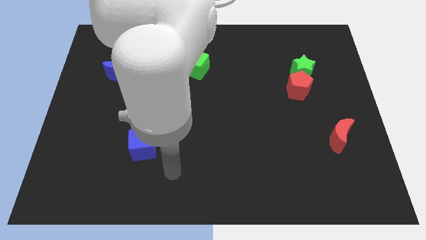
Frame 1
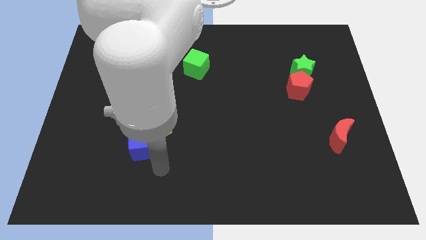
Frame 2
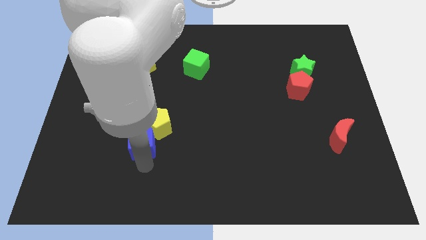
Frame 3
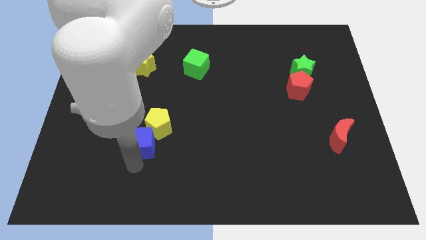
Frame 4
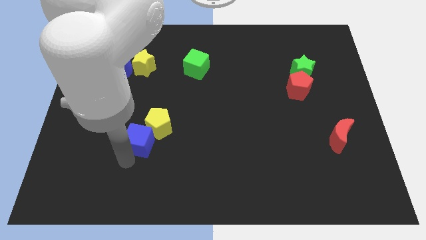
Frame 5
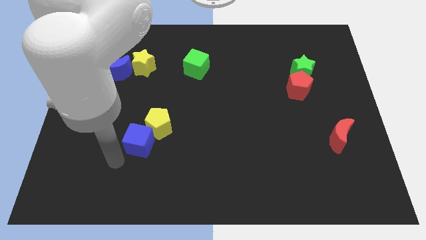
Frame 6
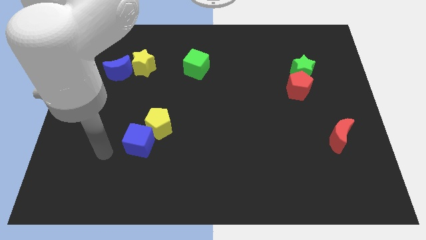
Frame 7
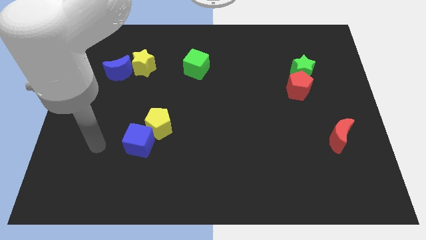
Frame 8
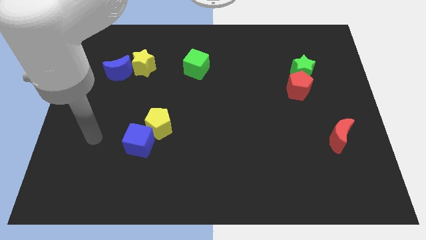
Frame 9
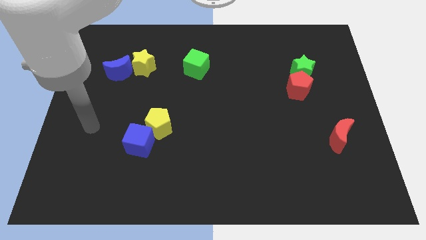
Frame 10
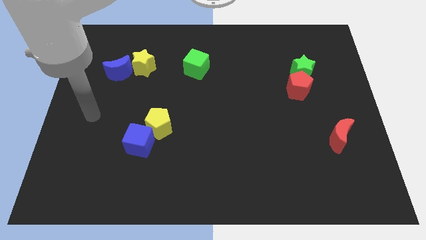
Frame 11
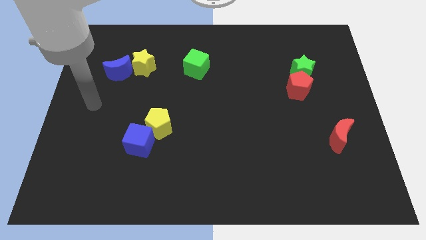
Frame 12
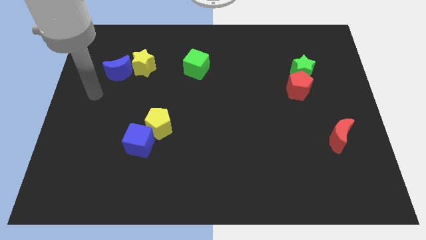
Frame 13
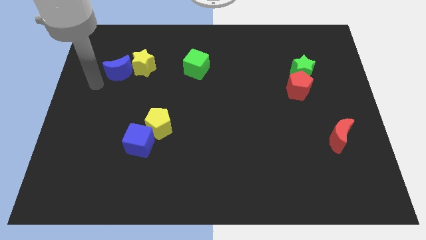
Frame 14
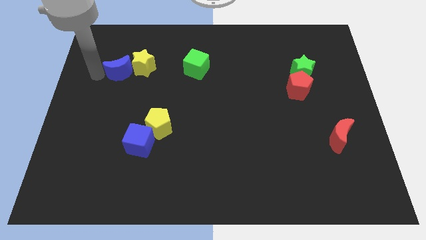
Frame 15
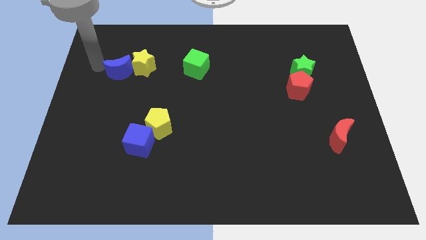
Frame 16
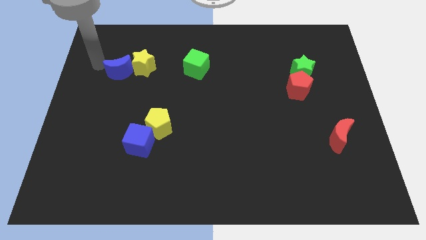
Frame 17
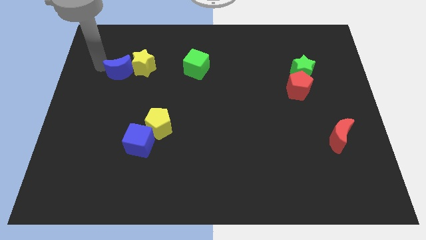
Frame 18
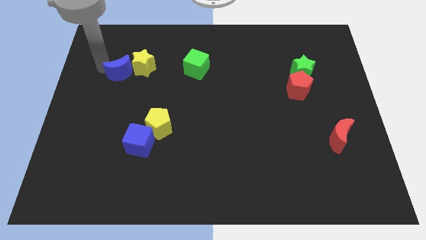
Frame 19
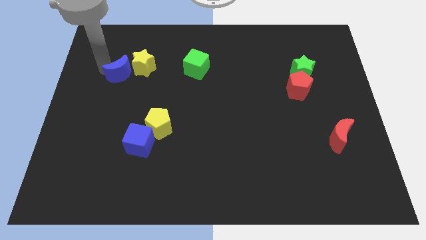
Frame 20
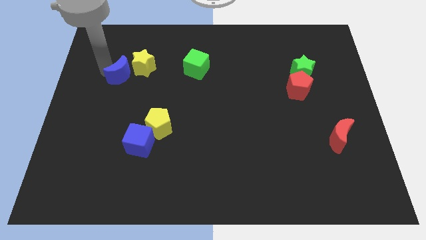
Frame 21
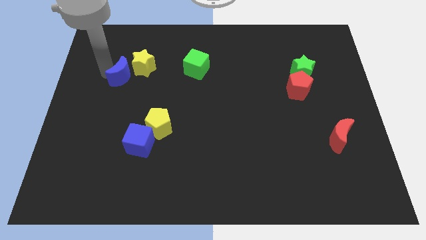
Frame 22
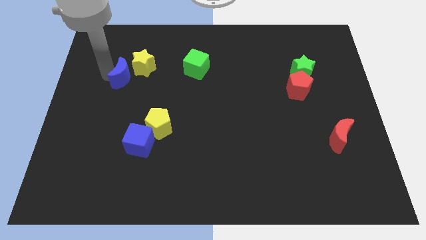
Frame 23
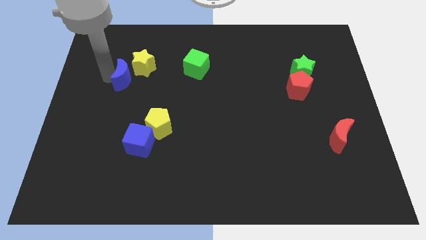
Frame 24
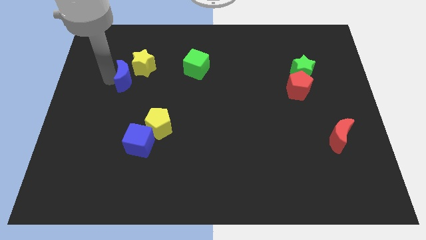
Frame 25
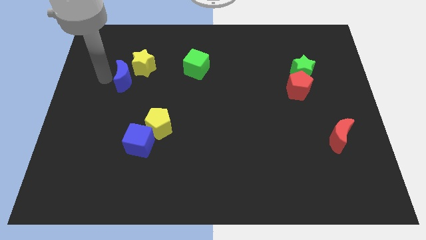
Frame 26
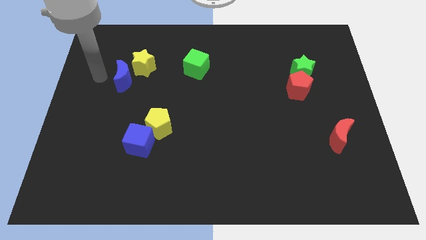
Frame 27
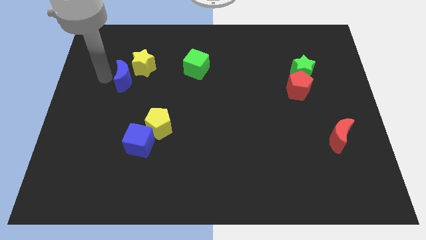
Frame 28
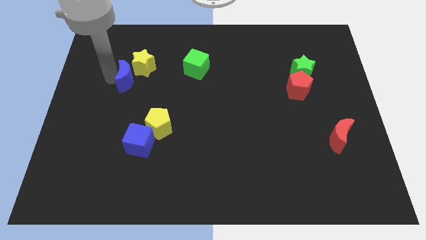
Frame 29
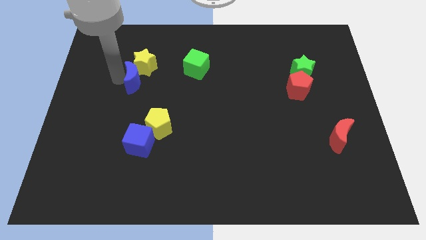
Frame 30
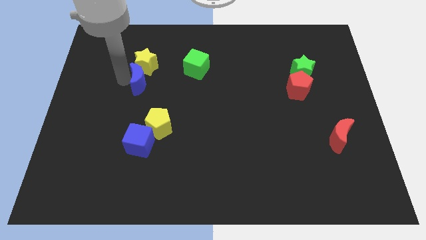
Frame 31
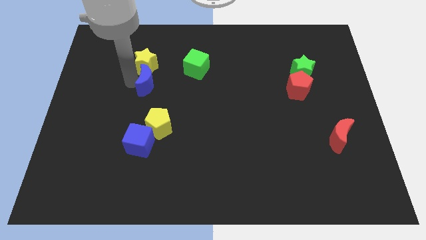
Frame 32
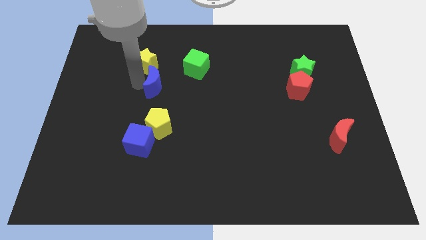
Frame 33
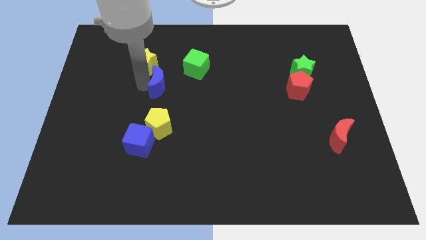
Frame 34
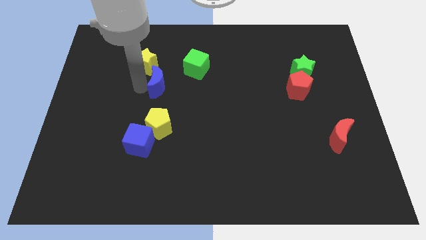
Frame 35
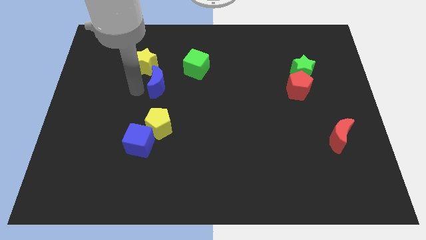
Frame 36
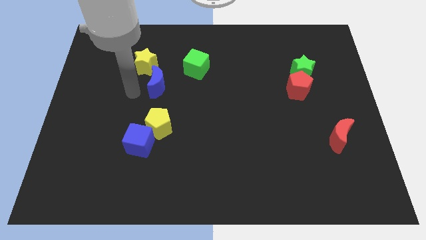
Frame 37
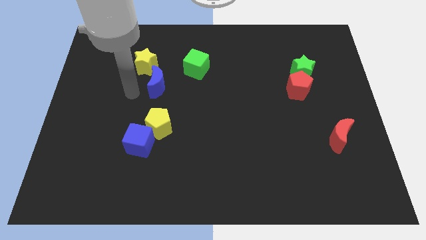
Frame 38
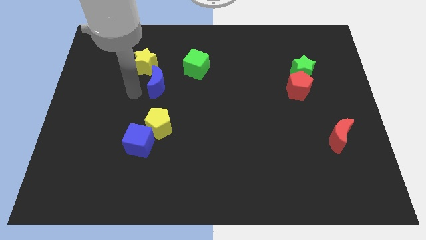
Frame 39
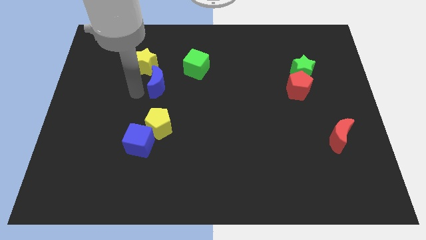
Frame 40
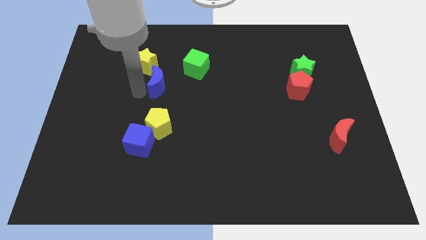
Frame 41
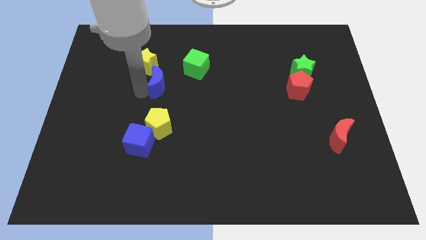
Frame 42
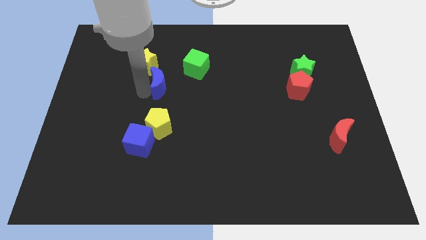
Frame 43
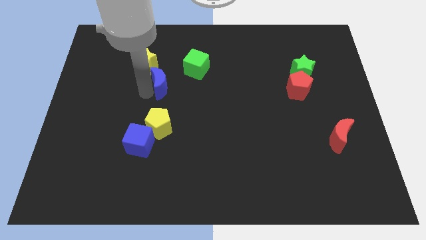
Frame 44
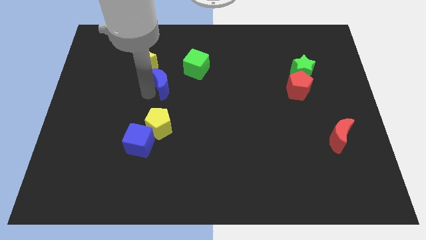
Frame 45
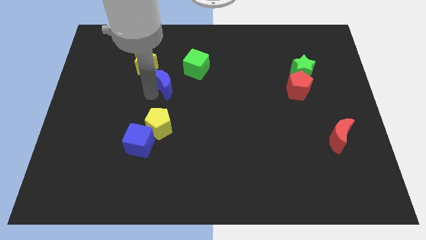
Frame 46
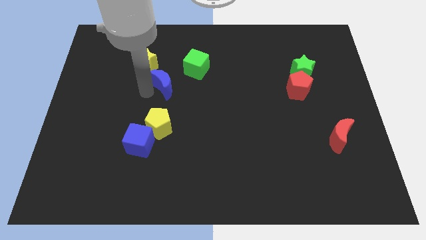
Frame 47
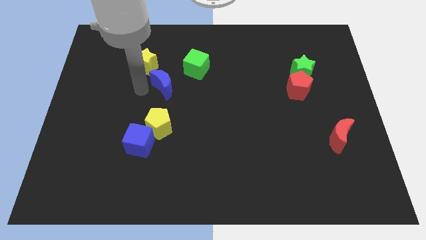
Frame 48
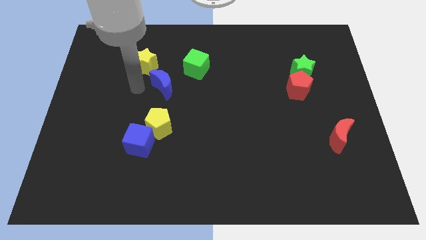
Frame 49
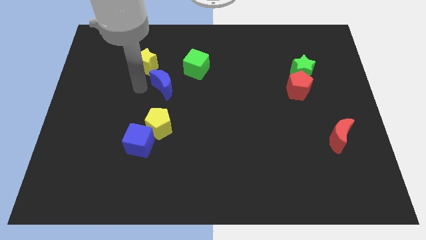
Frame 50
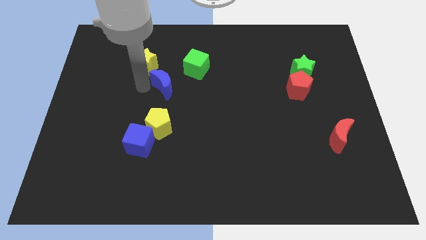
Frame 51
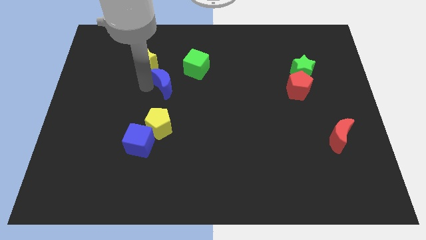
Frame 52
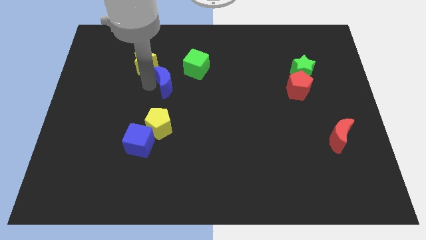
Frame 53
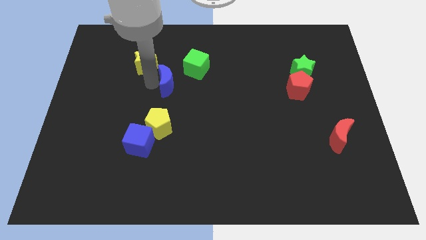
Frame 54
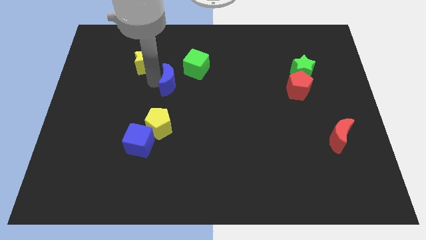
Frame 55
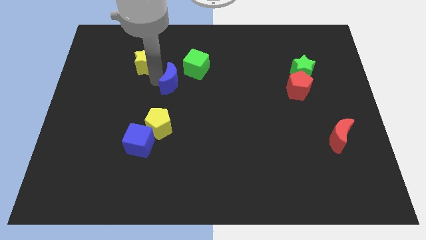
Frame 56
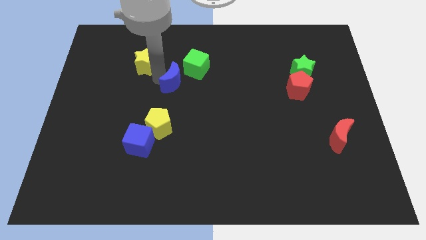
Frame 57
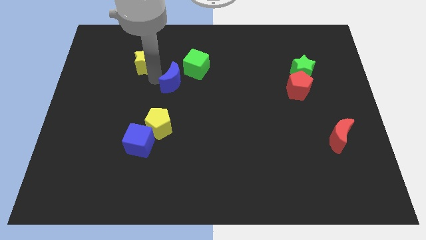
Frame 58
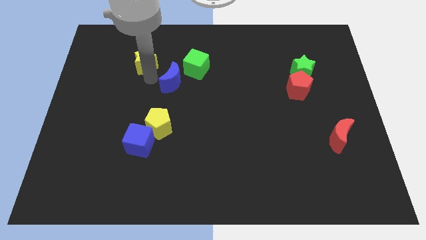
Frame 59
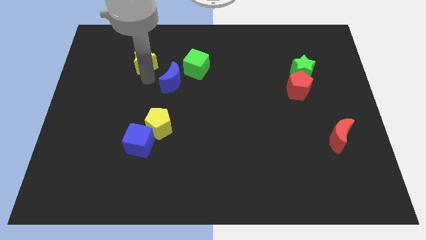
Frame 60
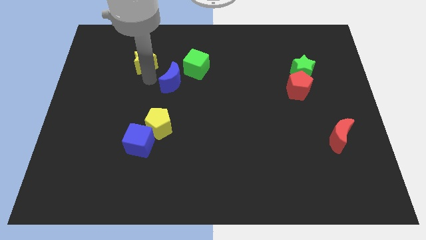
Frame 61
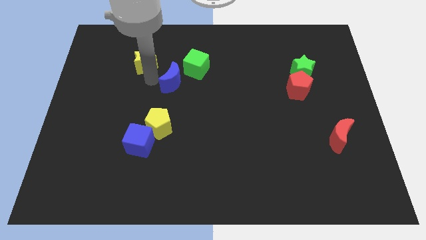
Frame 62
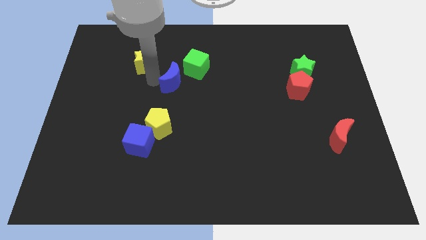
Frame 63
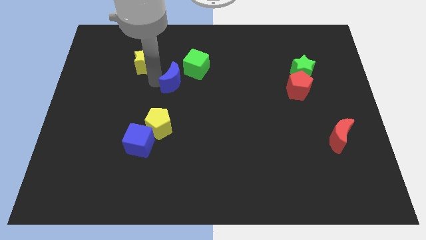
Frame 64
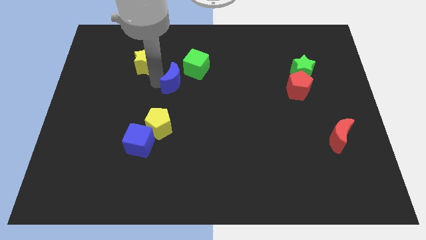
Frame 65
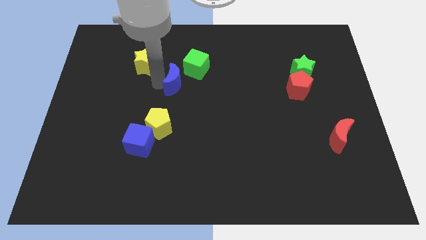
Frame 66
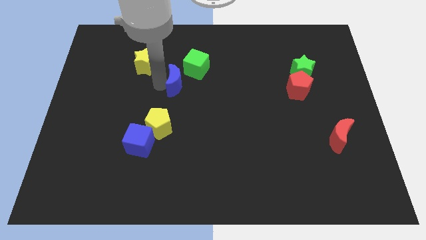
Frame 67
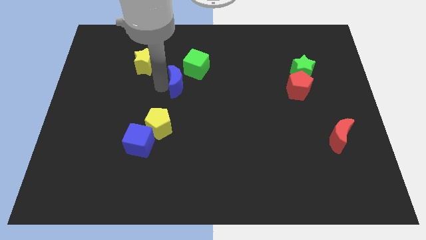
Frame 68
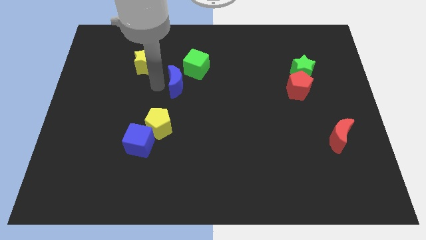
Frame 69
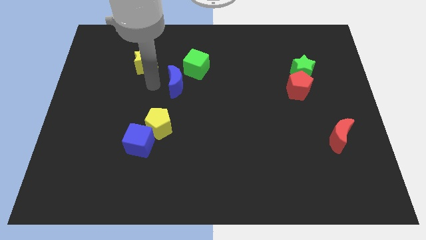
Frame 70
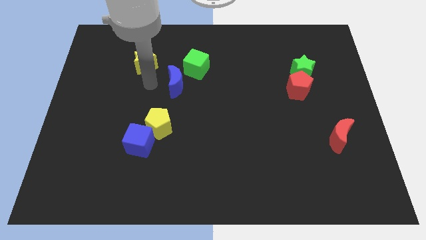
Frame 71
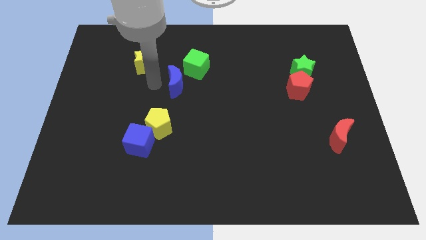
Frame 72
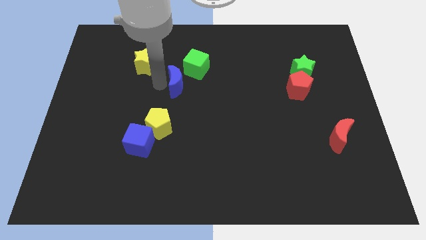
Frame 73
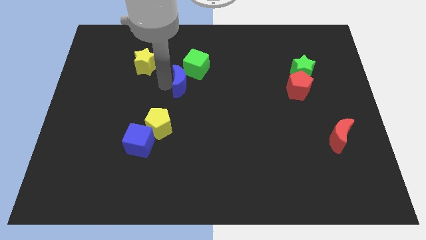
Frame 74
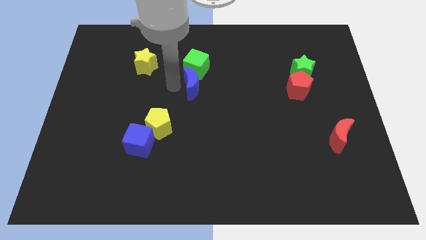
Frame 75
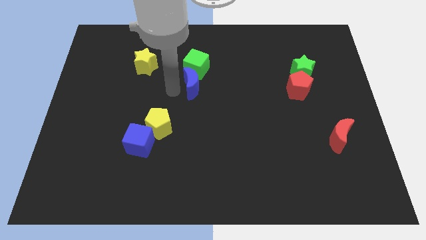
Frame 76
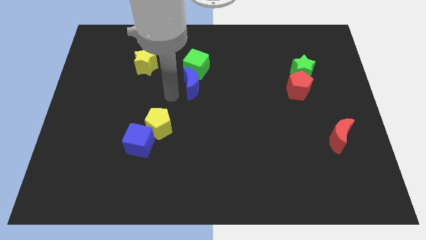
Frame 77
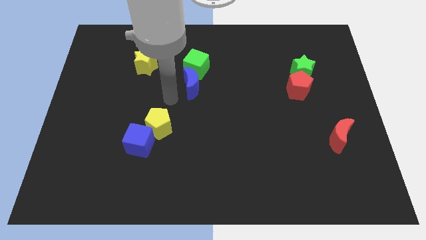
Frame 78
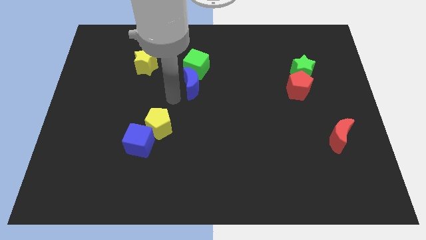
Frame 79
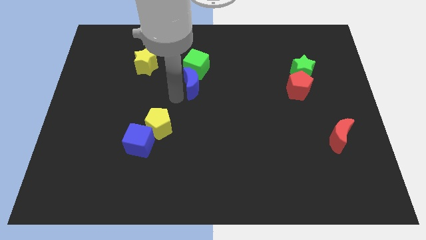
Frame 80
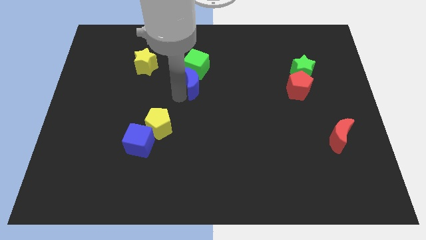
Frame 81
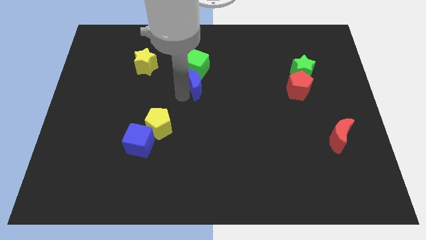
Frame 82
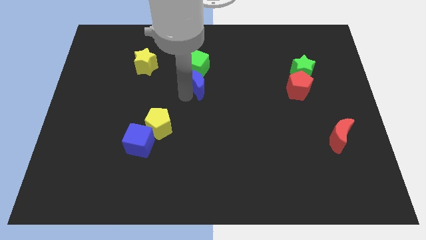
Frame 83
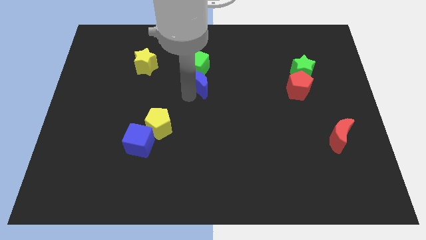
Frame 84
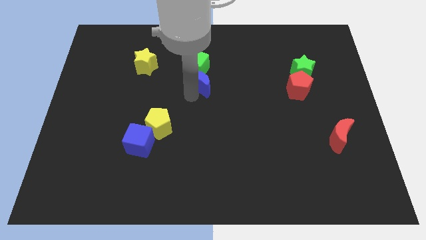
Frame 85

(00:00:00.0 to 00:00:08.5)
move the blue moon right

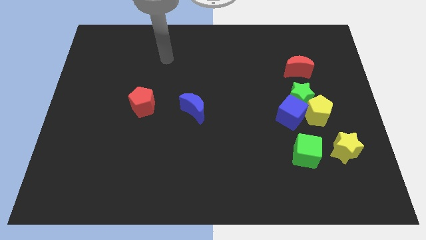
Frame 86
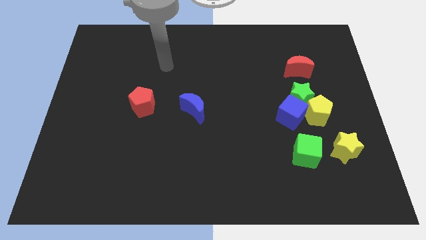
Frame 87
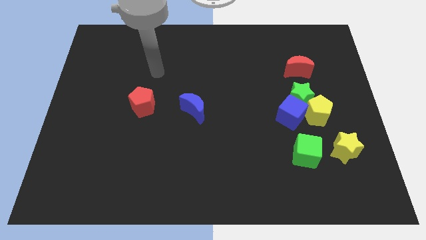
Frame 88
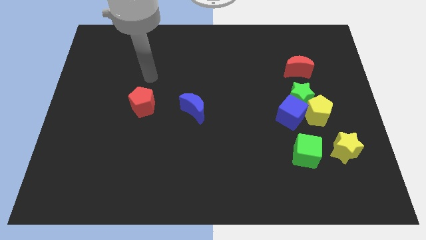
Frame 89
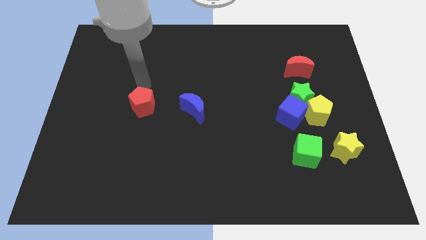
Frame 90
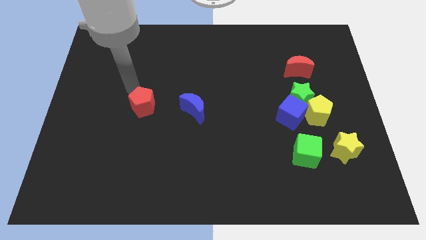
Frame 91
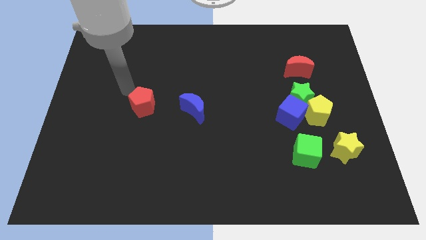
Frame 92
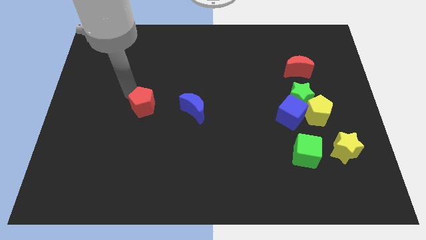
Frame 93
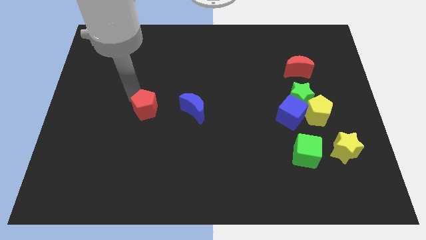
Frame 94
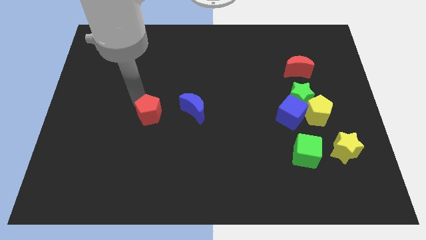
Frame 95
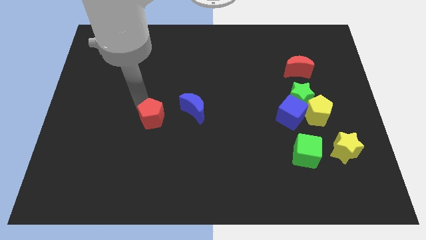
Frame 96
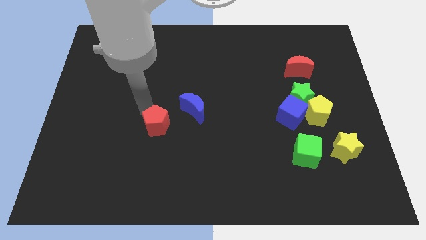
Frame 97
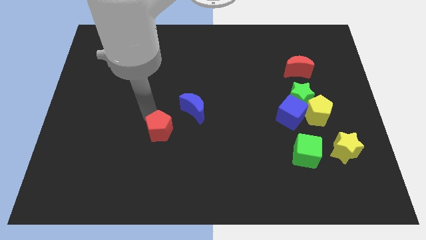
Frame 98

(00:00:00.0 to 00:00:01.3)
slightly slide the red pentagon downwards and then to the right
